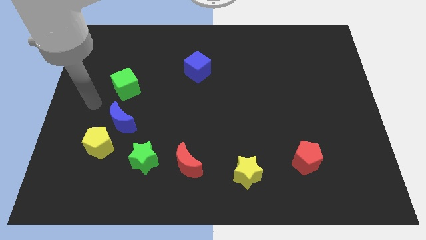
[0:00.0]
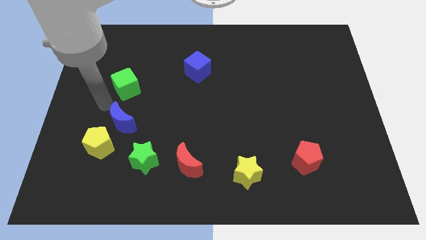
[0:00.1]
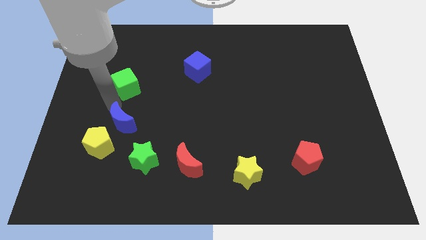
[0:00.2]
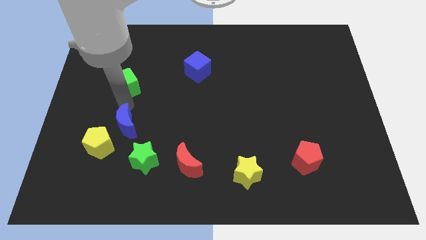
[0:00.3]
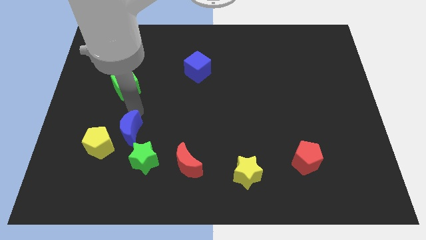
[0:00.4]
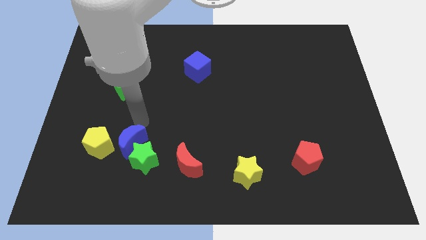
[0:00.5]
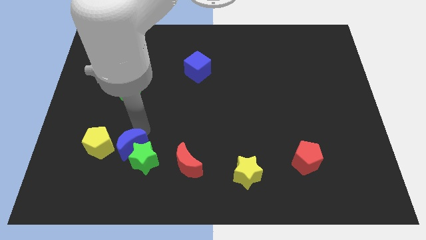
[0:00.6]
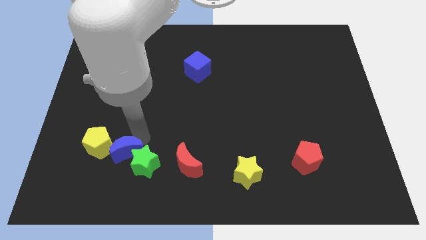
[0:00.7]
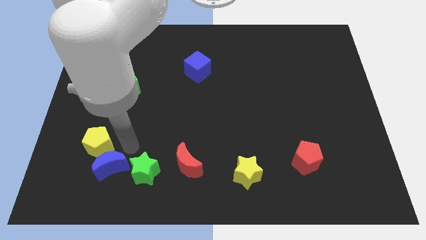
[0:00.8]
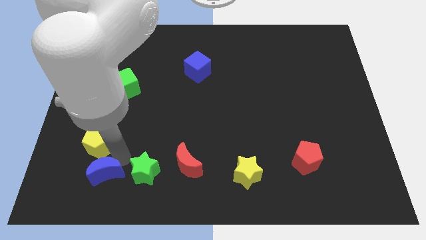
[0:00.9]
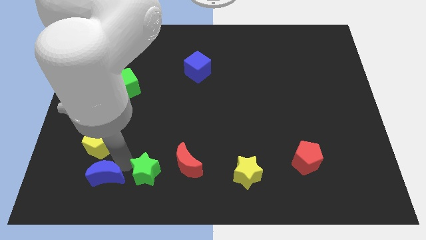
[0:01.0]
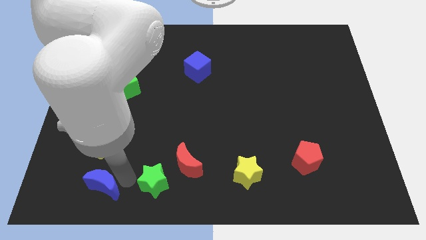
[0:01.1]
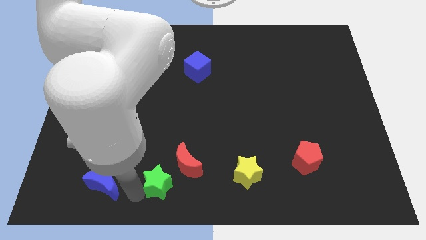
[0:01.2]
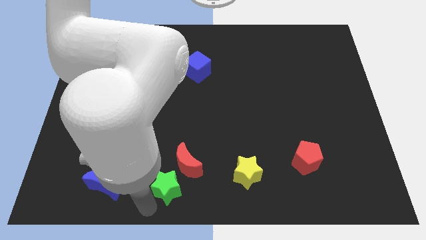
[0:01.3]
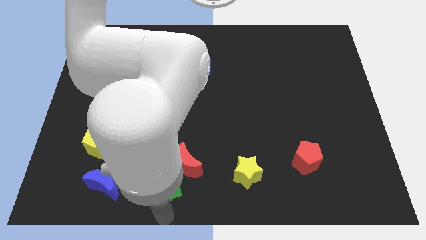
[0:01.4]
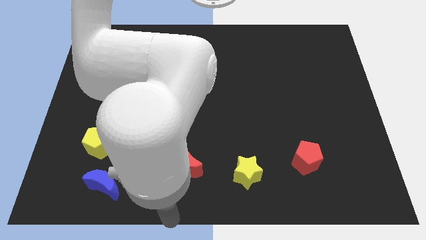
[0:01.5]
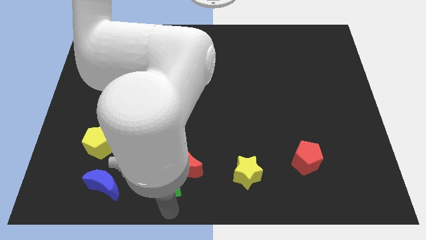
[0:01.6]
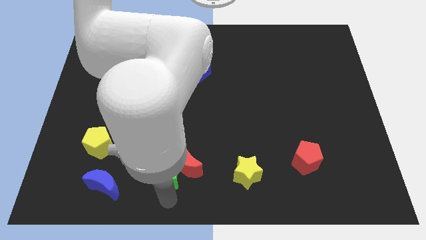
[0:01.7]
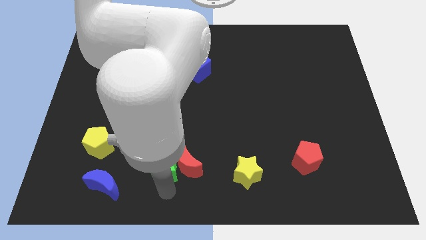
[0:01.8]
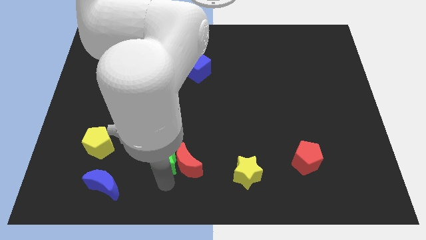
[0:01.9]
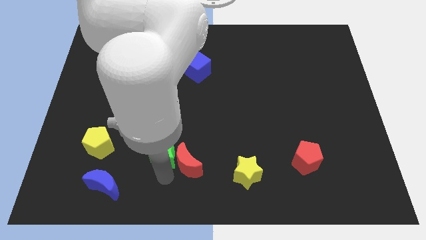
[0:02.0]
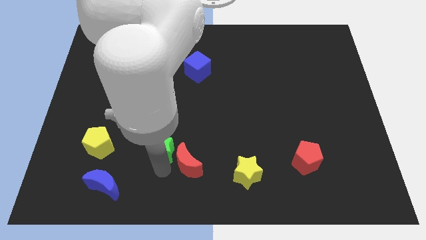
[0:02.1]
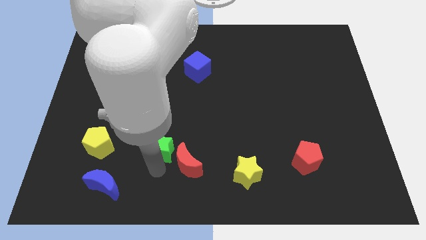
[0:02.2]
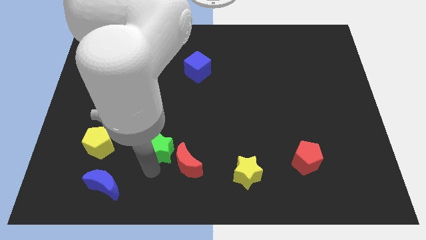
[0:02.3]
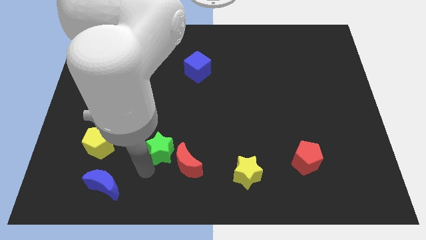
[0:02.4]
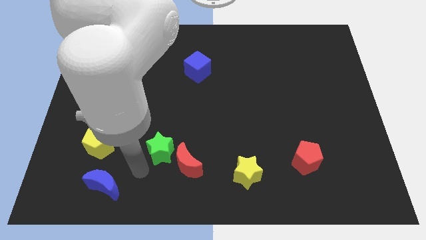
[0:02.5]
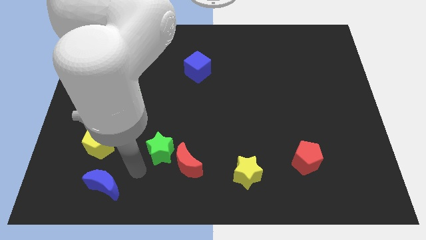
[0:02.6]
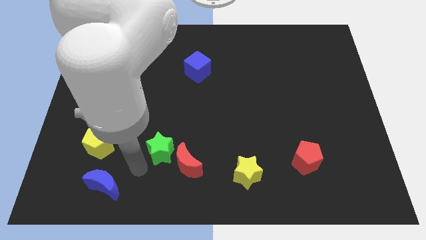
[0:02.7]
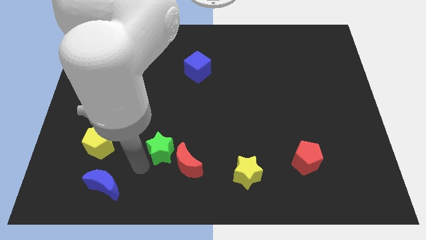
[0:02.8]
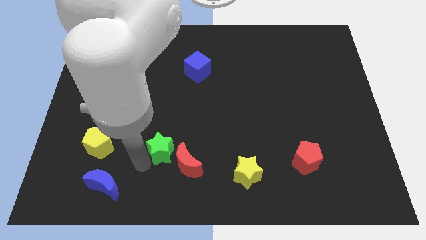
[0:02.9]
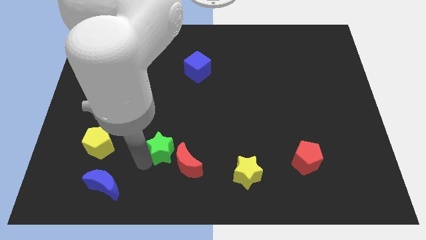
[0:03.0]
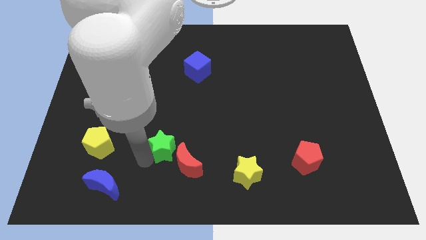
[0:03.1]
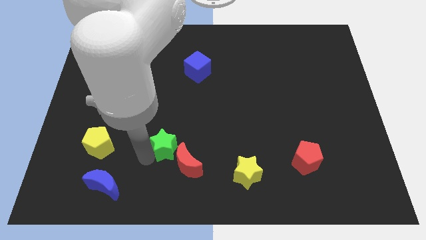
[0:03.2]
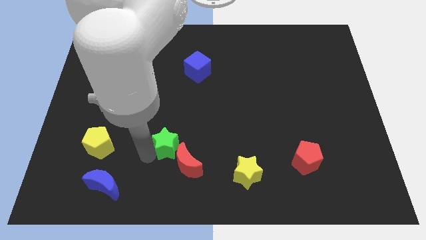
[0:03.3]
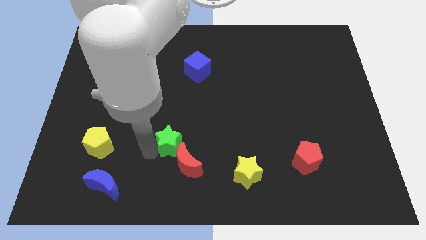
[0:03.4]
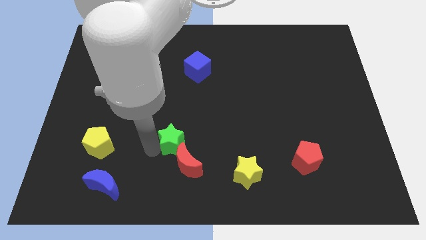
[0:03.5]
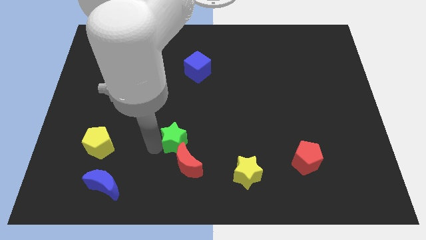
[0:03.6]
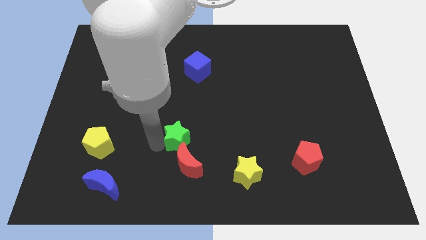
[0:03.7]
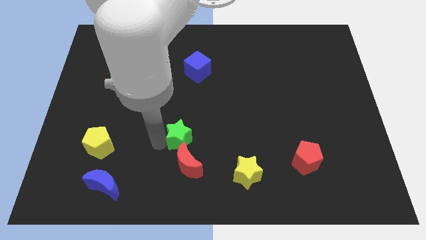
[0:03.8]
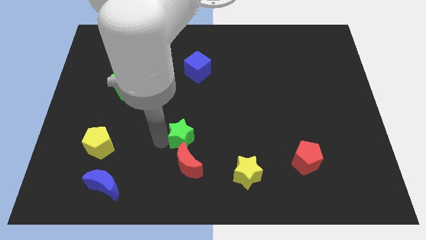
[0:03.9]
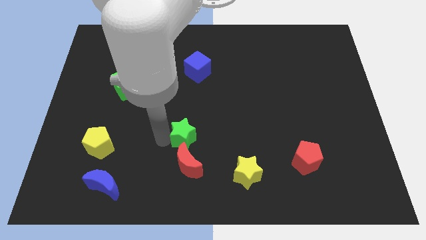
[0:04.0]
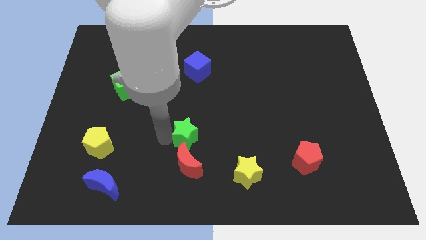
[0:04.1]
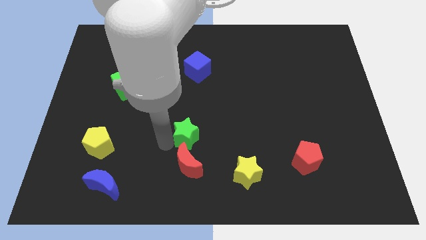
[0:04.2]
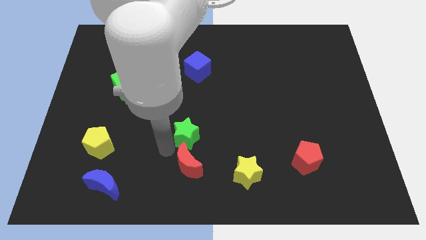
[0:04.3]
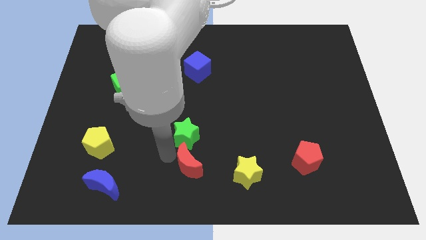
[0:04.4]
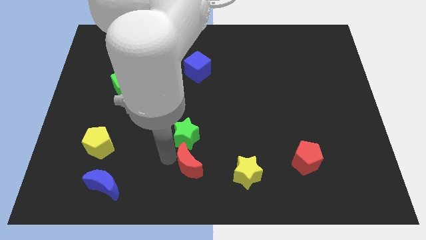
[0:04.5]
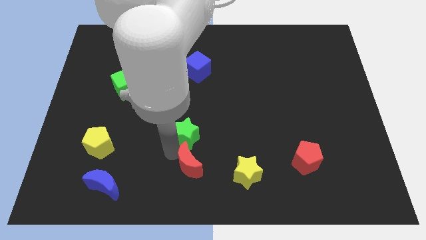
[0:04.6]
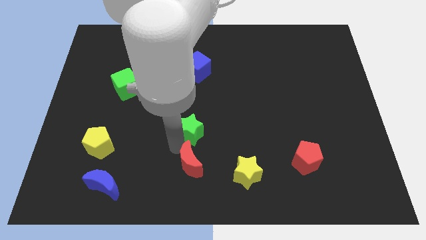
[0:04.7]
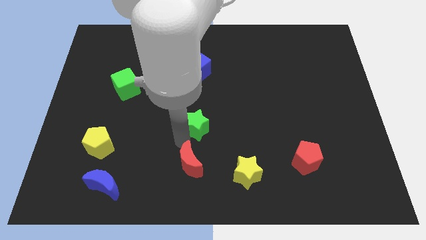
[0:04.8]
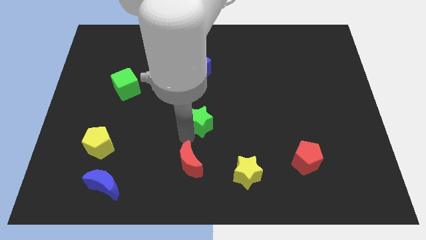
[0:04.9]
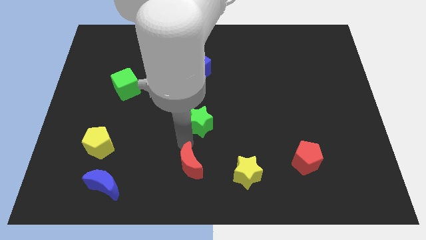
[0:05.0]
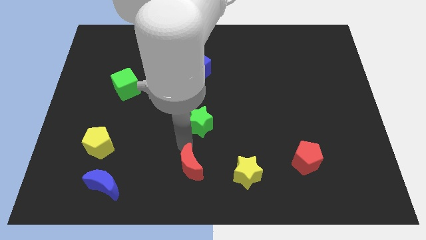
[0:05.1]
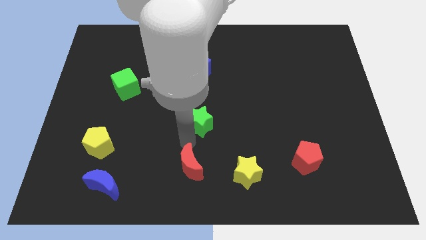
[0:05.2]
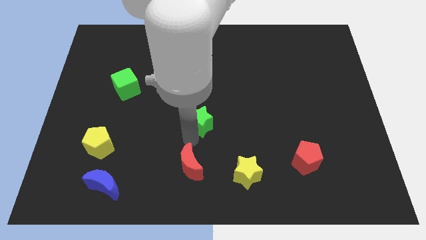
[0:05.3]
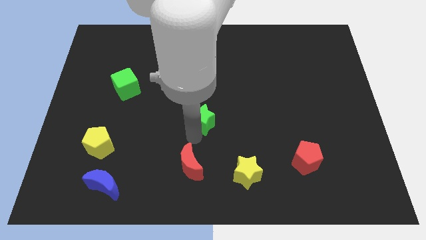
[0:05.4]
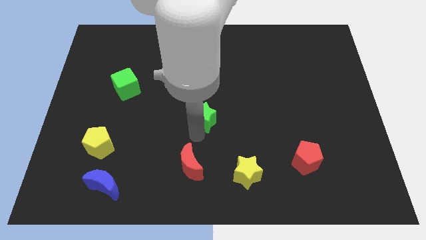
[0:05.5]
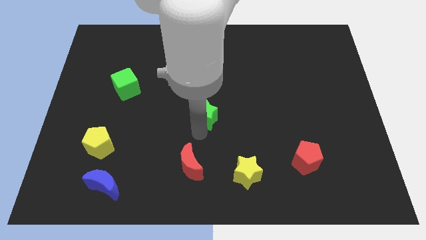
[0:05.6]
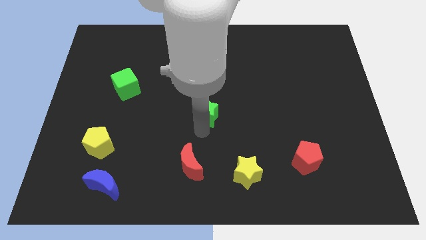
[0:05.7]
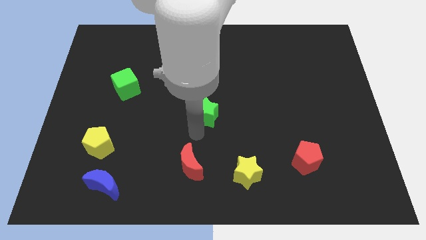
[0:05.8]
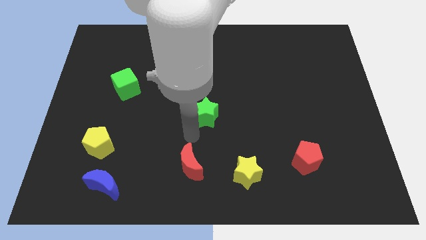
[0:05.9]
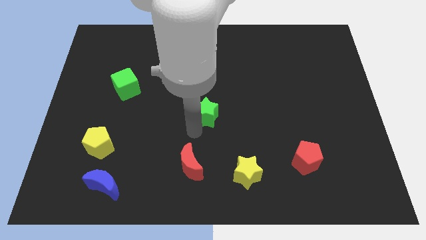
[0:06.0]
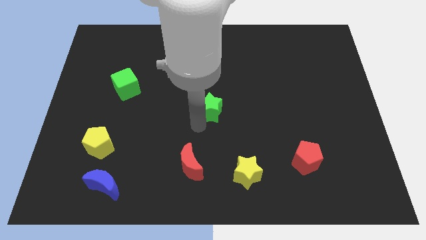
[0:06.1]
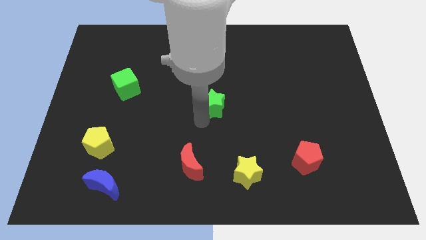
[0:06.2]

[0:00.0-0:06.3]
move the green star diagonally up and to the right

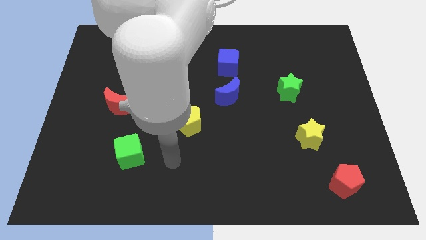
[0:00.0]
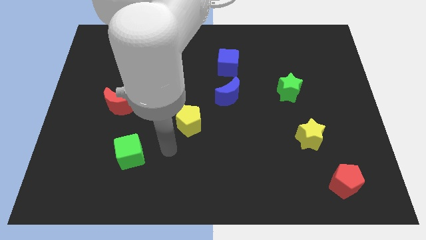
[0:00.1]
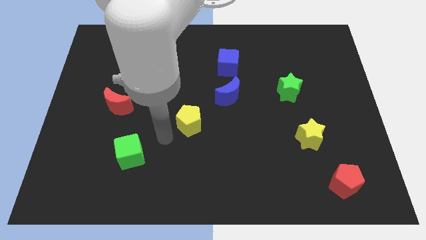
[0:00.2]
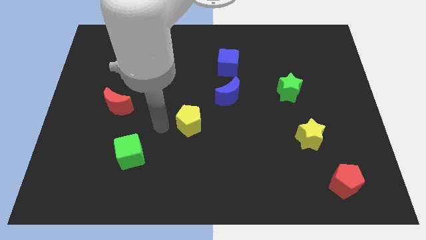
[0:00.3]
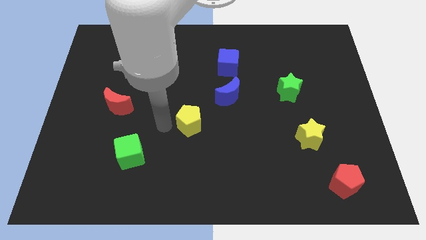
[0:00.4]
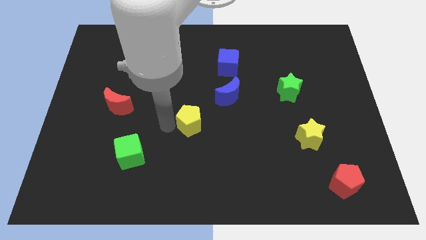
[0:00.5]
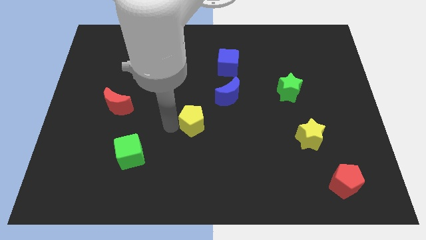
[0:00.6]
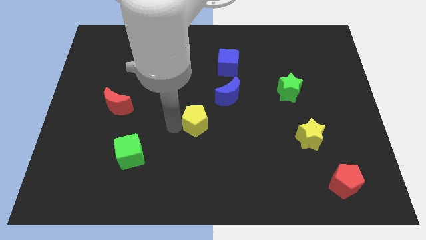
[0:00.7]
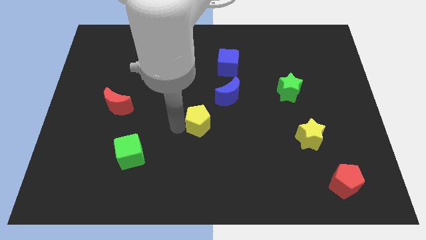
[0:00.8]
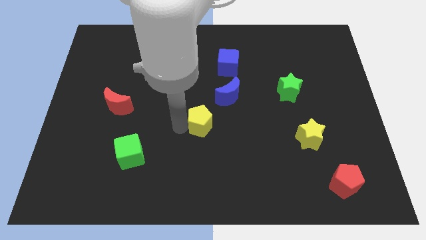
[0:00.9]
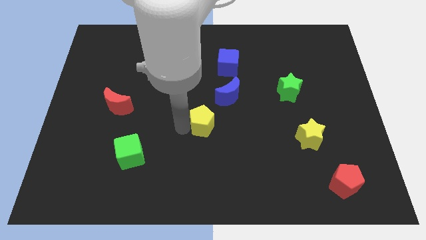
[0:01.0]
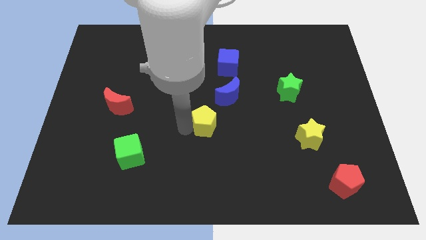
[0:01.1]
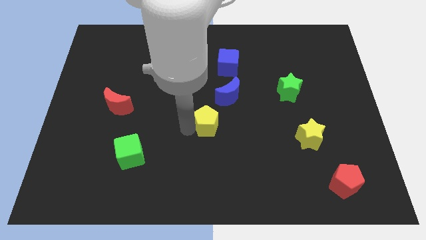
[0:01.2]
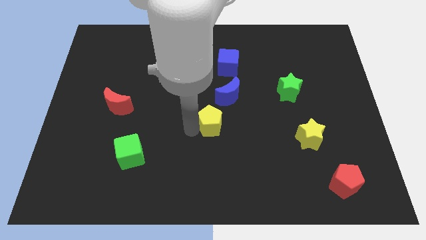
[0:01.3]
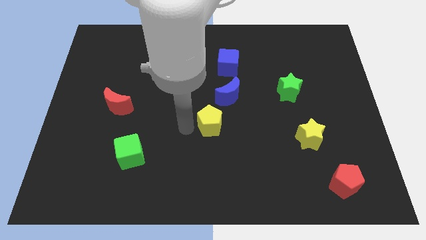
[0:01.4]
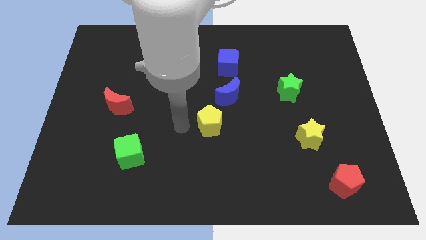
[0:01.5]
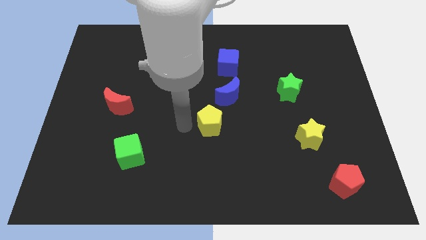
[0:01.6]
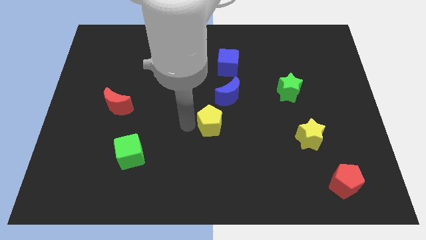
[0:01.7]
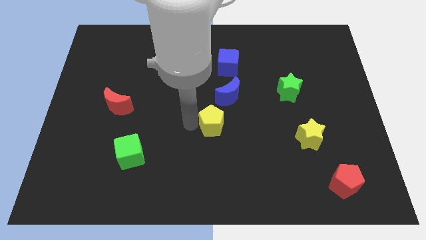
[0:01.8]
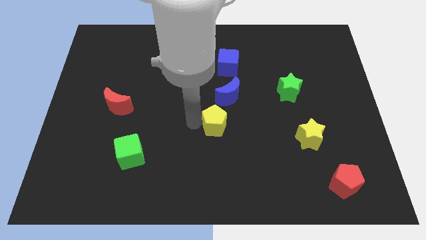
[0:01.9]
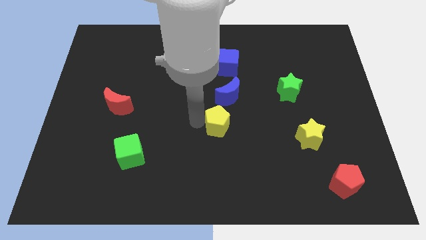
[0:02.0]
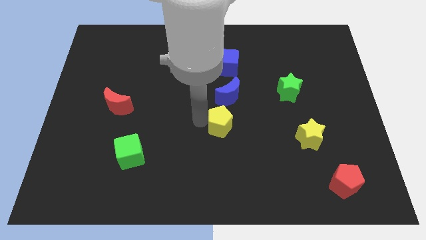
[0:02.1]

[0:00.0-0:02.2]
slightly move the yellow pentagon right
